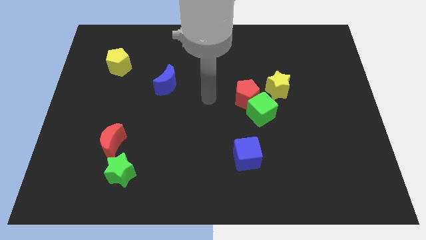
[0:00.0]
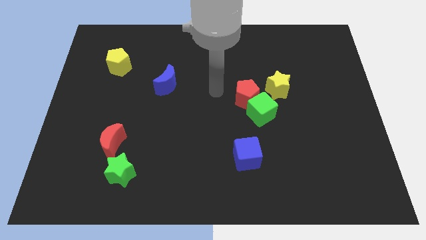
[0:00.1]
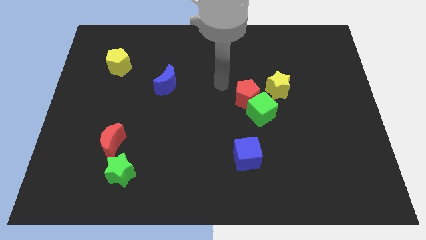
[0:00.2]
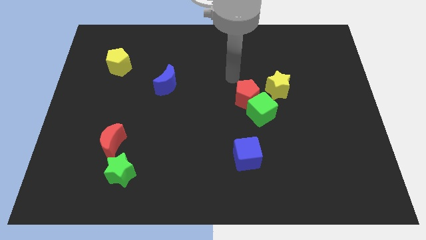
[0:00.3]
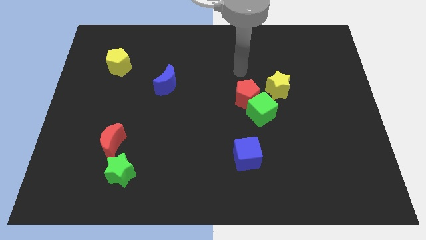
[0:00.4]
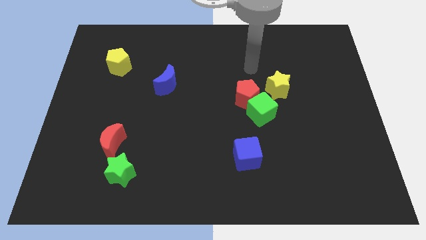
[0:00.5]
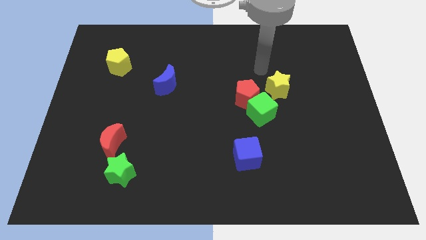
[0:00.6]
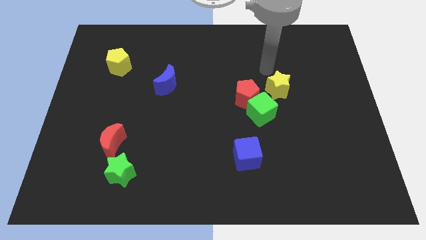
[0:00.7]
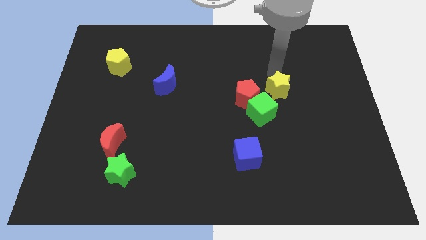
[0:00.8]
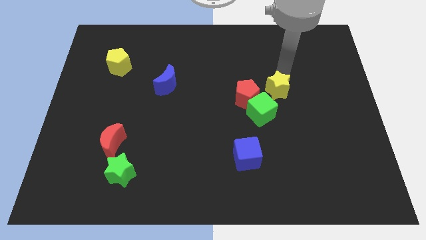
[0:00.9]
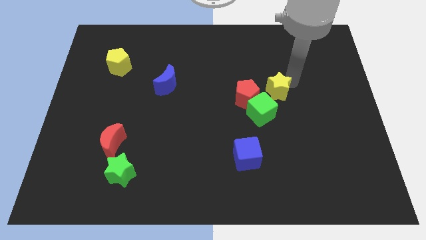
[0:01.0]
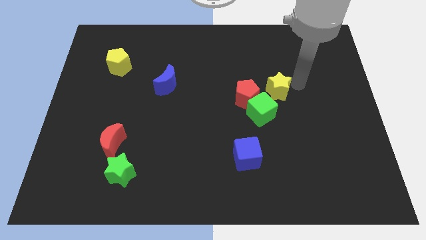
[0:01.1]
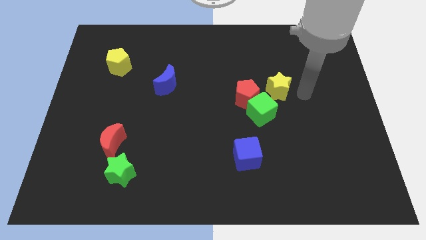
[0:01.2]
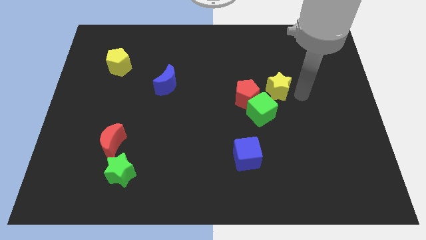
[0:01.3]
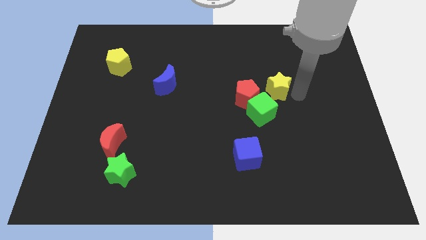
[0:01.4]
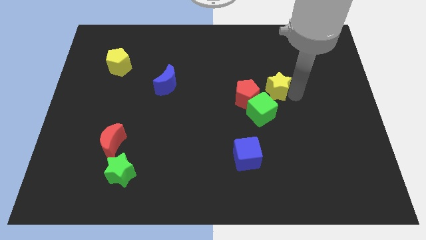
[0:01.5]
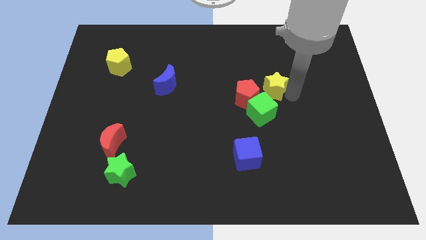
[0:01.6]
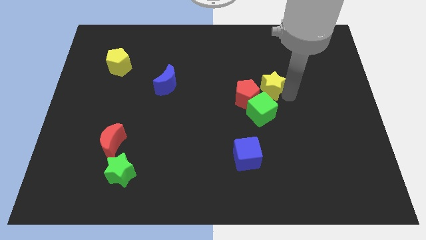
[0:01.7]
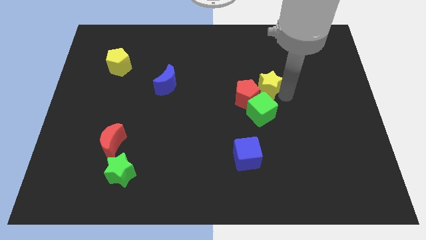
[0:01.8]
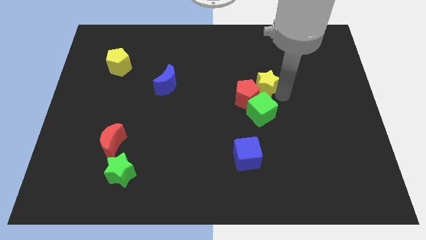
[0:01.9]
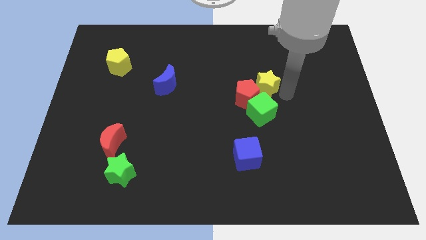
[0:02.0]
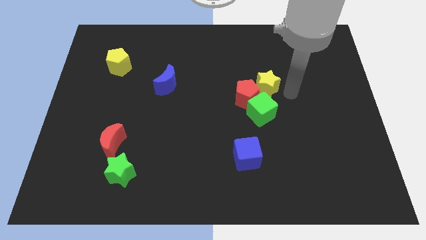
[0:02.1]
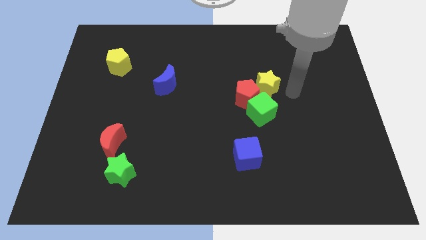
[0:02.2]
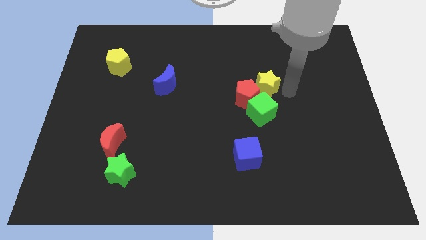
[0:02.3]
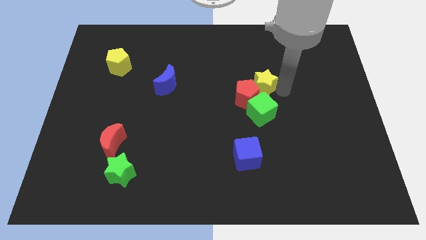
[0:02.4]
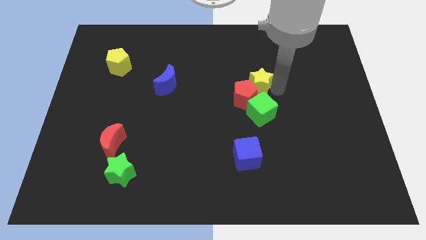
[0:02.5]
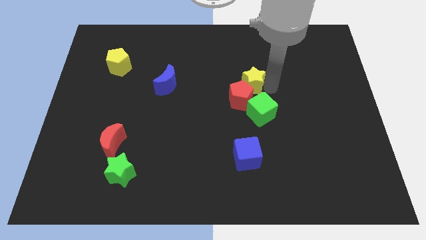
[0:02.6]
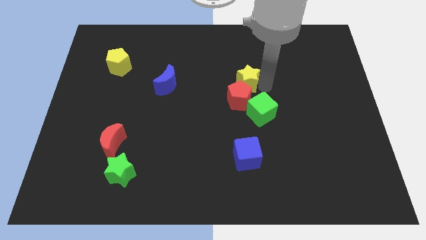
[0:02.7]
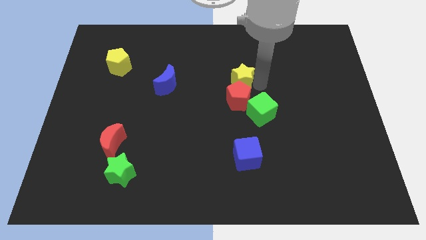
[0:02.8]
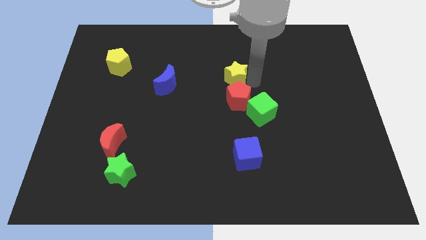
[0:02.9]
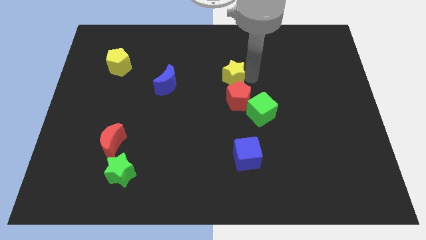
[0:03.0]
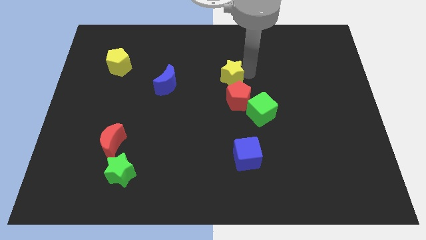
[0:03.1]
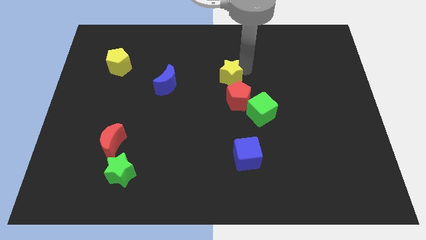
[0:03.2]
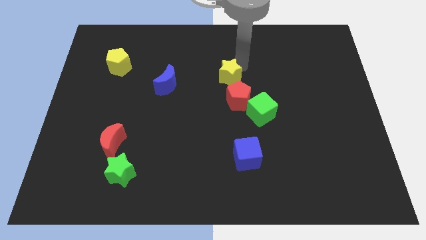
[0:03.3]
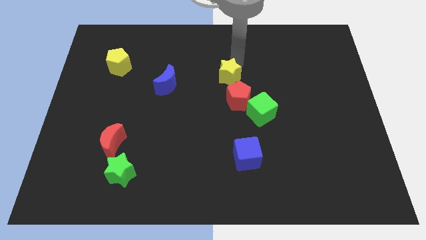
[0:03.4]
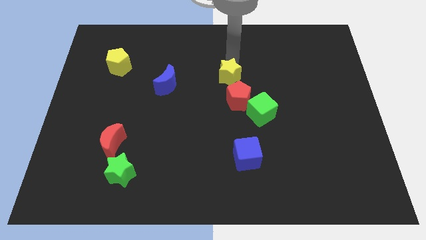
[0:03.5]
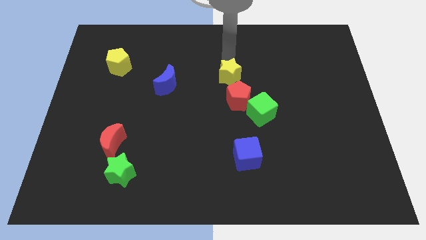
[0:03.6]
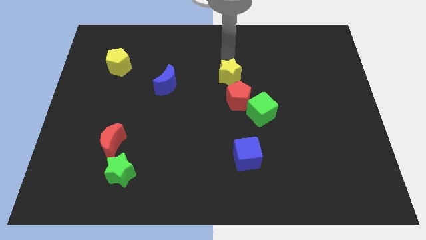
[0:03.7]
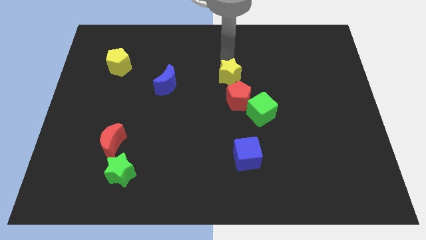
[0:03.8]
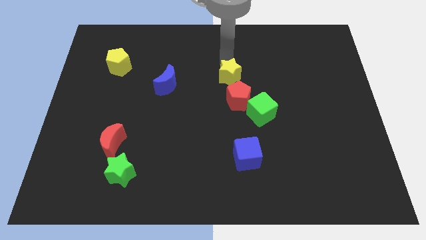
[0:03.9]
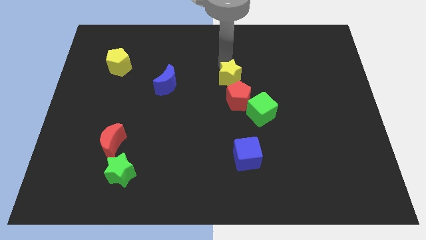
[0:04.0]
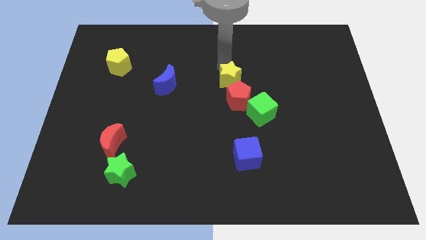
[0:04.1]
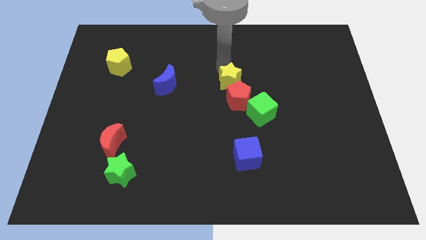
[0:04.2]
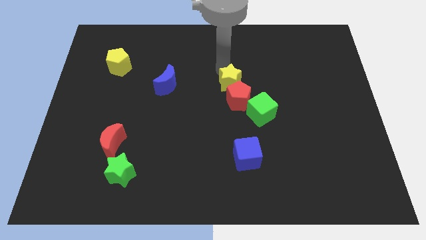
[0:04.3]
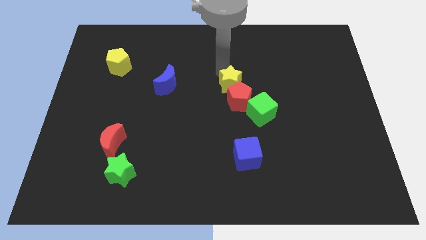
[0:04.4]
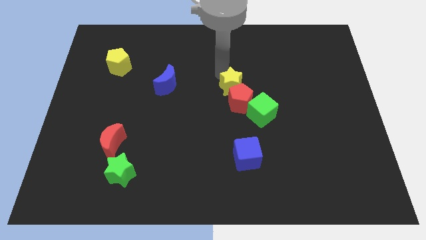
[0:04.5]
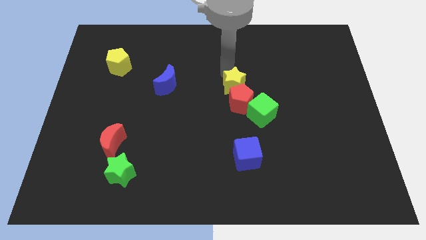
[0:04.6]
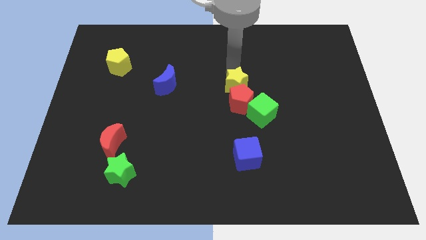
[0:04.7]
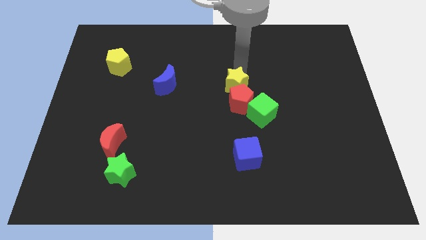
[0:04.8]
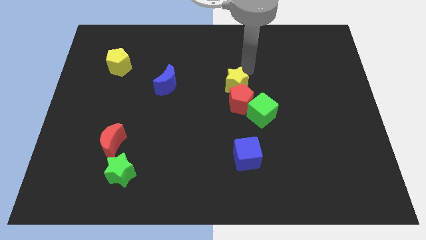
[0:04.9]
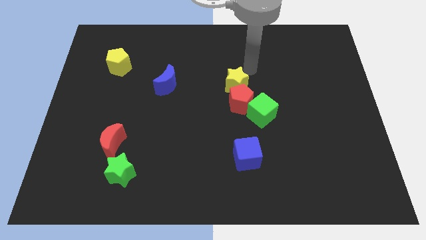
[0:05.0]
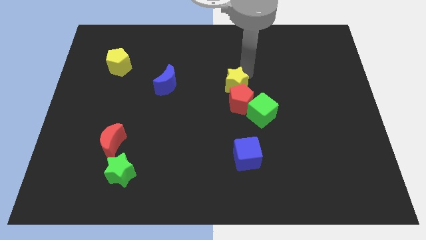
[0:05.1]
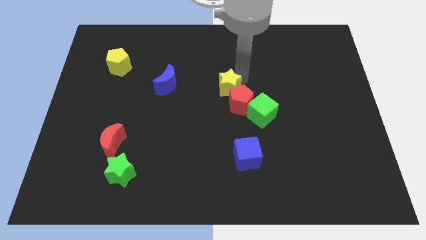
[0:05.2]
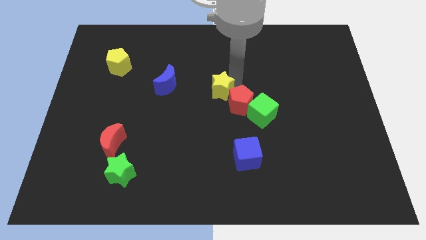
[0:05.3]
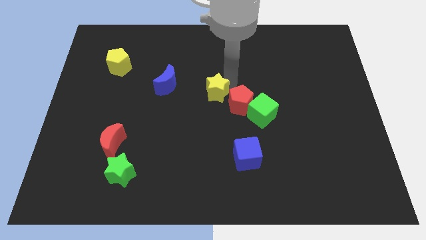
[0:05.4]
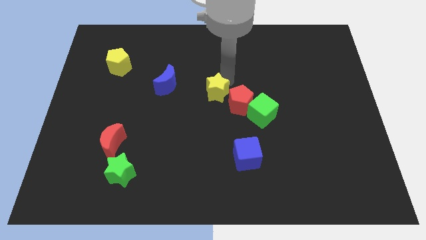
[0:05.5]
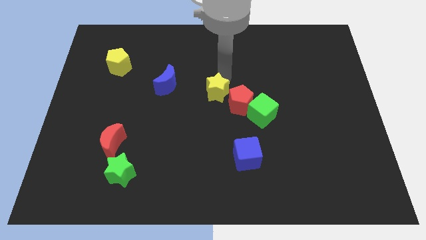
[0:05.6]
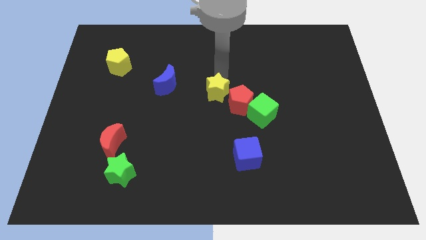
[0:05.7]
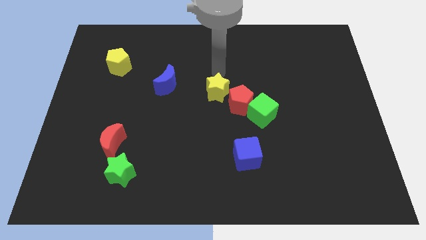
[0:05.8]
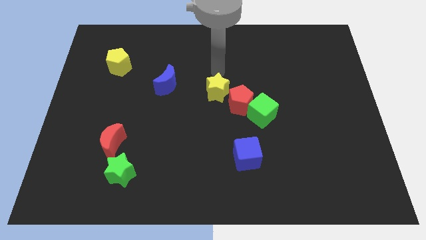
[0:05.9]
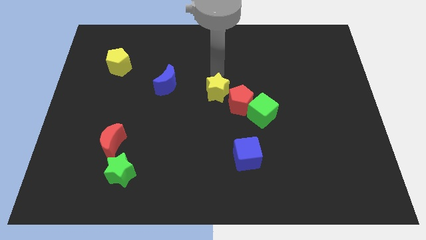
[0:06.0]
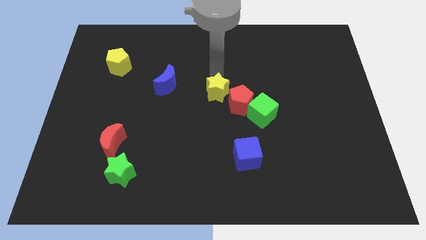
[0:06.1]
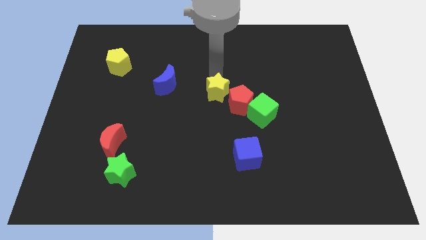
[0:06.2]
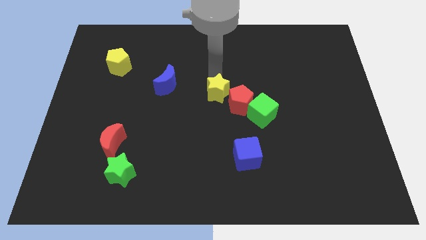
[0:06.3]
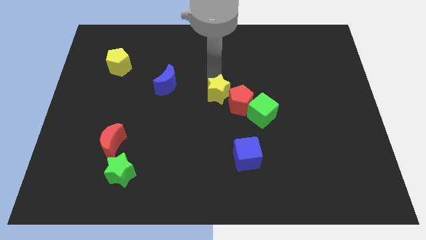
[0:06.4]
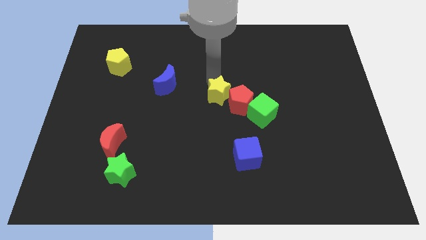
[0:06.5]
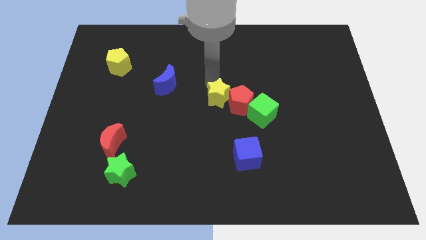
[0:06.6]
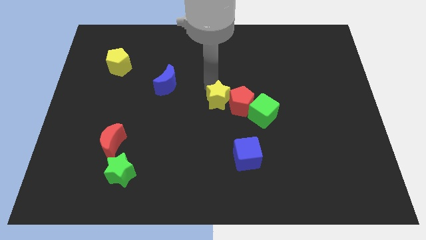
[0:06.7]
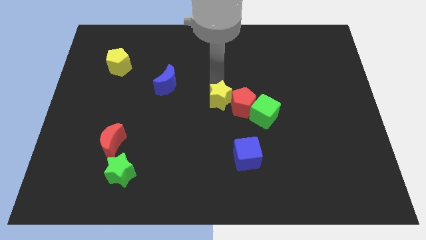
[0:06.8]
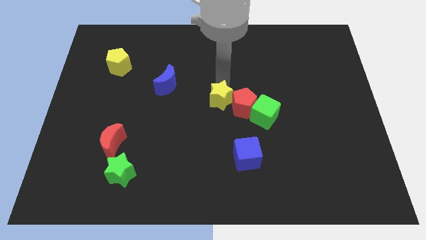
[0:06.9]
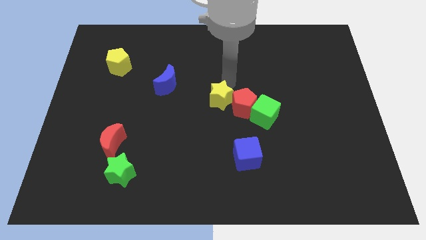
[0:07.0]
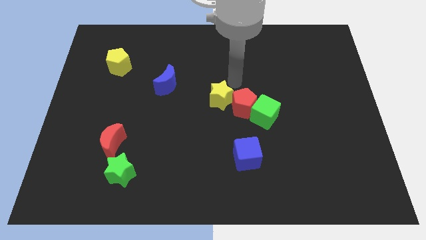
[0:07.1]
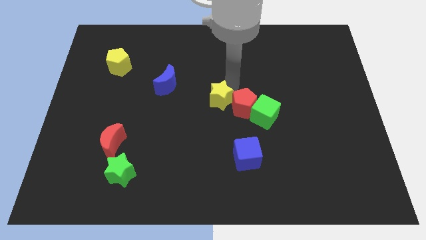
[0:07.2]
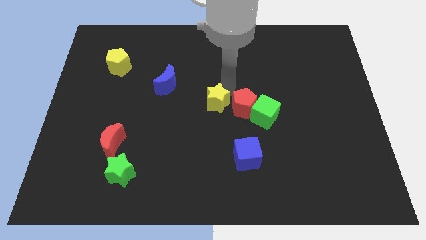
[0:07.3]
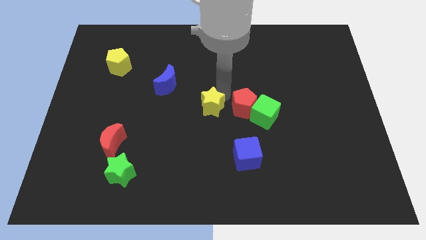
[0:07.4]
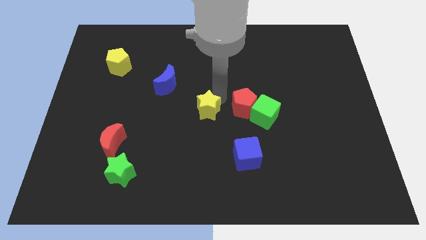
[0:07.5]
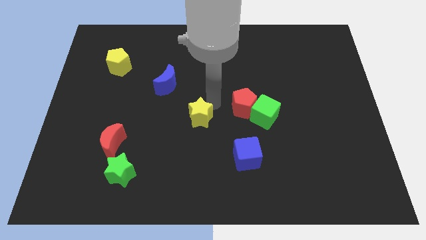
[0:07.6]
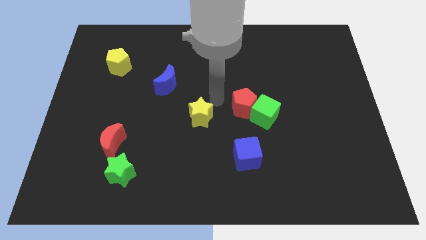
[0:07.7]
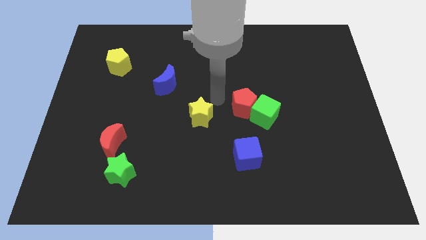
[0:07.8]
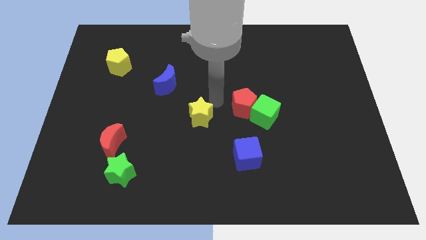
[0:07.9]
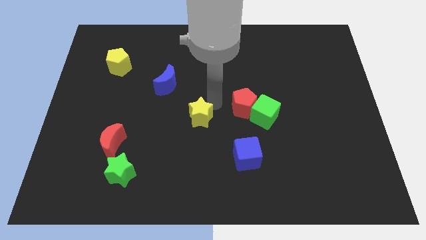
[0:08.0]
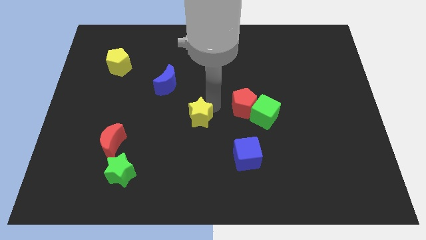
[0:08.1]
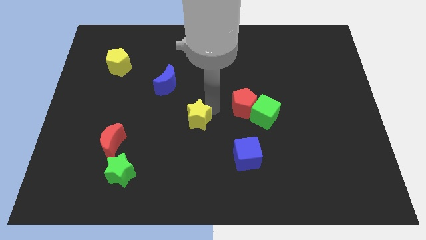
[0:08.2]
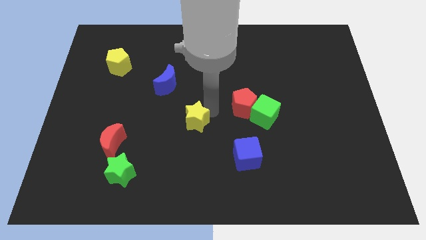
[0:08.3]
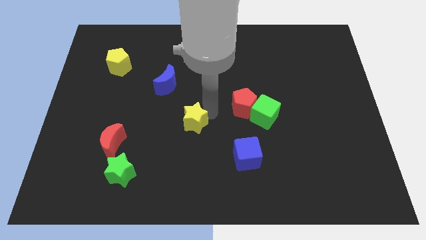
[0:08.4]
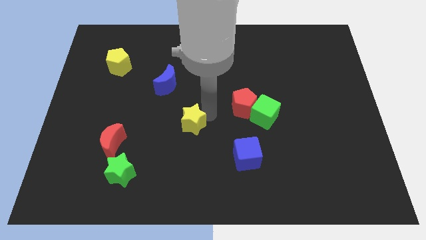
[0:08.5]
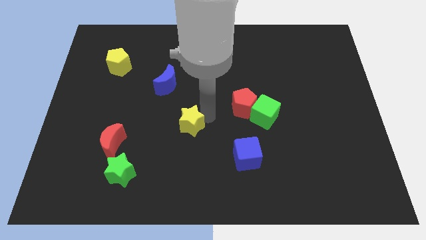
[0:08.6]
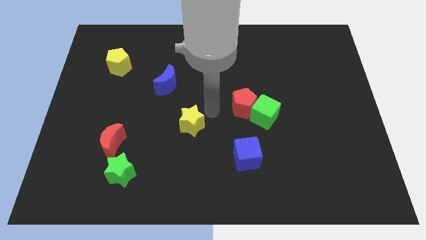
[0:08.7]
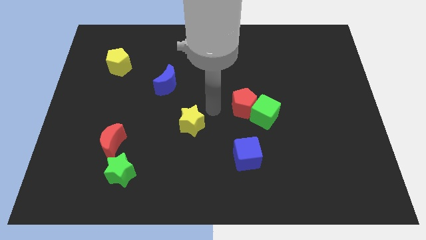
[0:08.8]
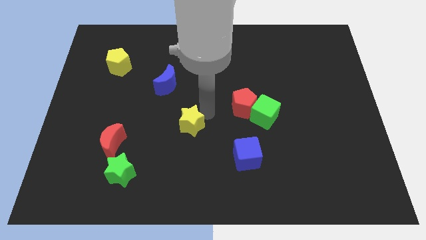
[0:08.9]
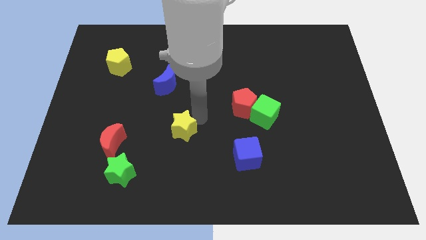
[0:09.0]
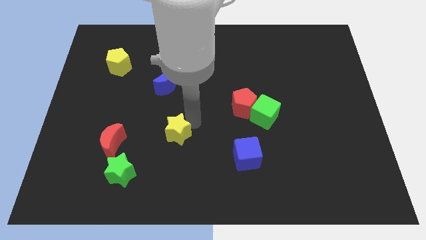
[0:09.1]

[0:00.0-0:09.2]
put the yellow star to the right of the red moon
